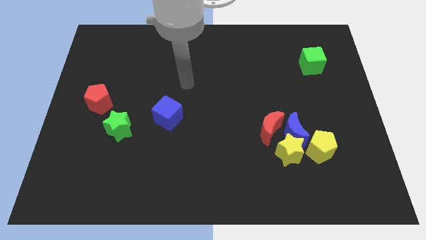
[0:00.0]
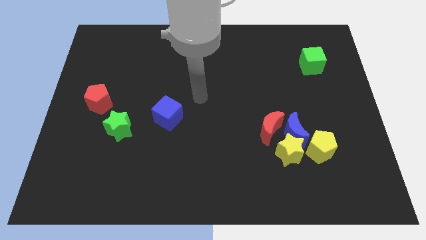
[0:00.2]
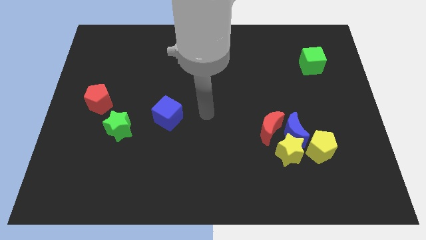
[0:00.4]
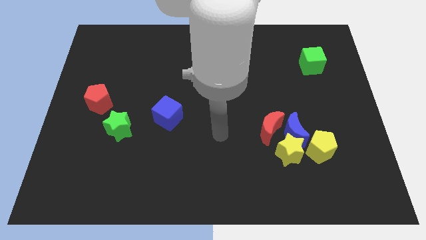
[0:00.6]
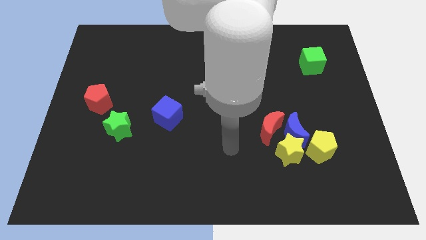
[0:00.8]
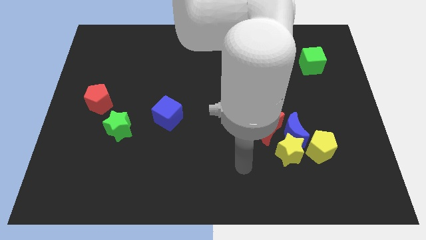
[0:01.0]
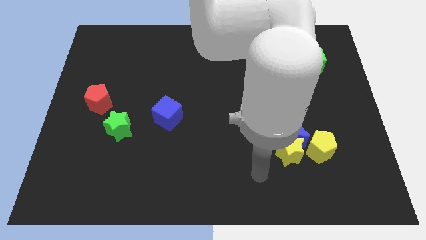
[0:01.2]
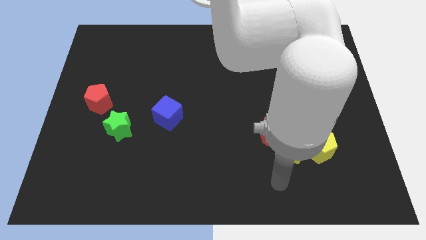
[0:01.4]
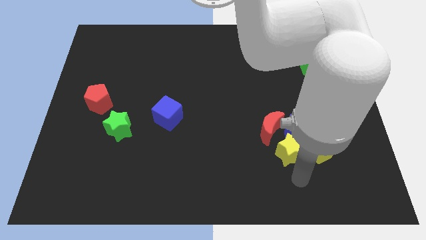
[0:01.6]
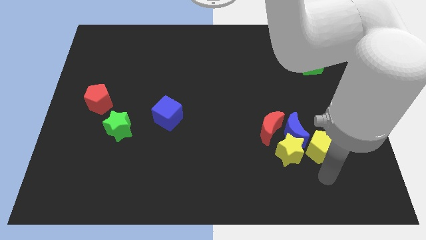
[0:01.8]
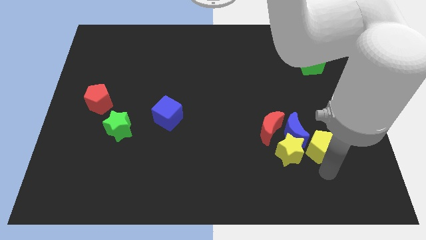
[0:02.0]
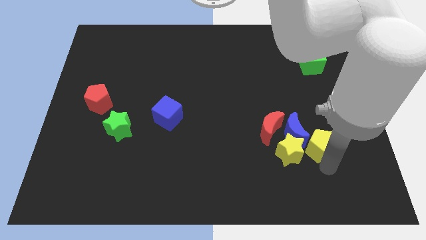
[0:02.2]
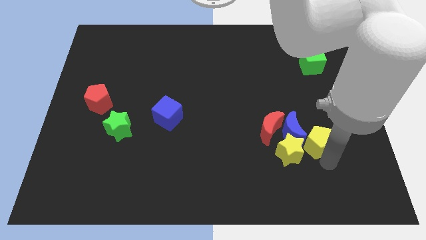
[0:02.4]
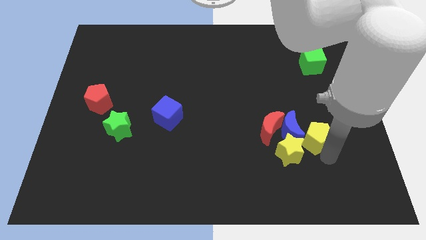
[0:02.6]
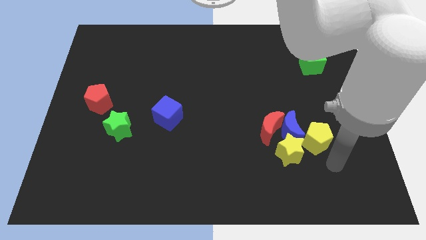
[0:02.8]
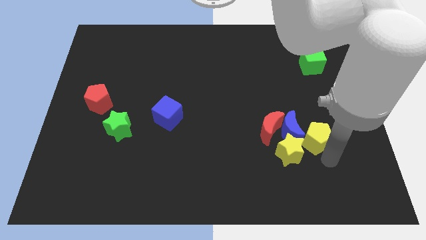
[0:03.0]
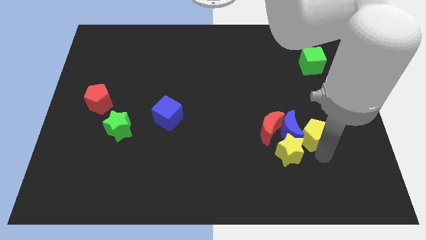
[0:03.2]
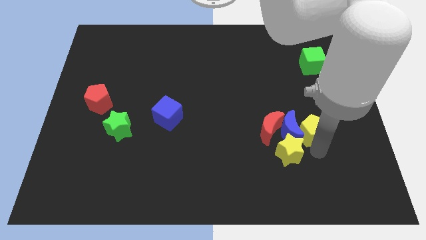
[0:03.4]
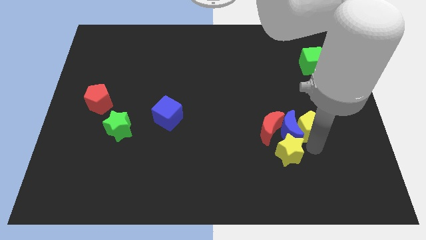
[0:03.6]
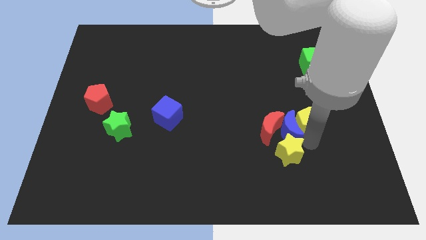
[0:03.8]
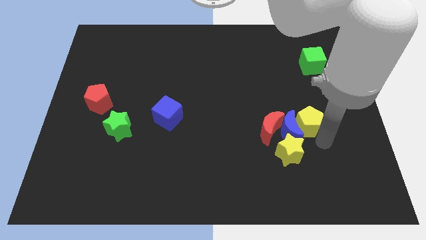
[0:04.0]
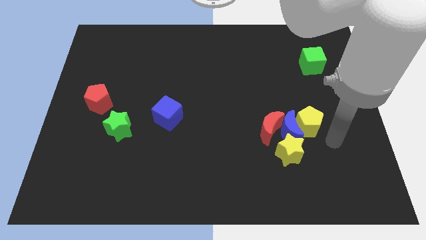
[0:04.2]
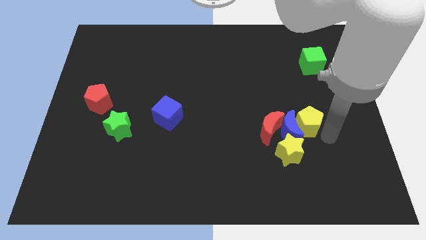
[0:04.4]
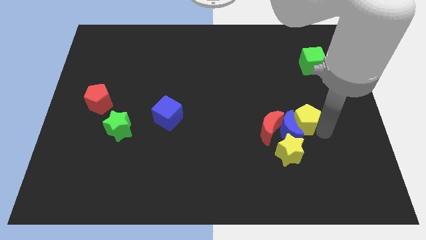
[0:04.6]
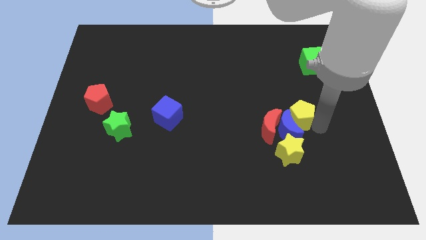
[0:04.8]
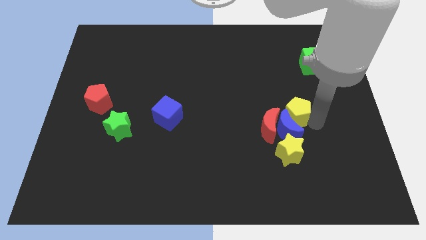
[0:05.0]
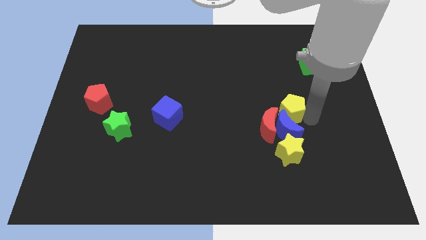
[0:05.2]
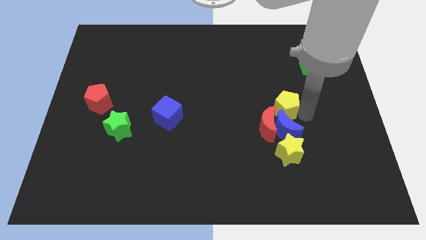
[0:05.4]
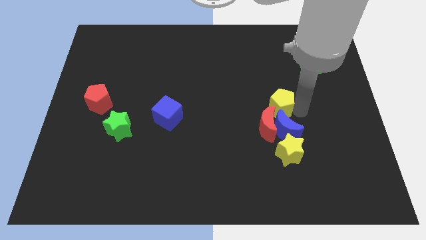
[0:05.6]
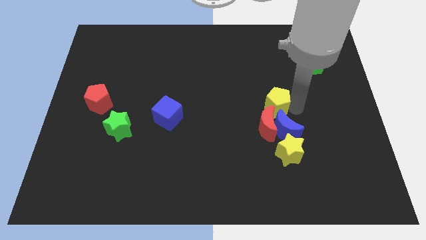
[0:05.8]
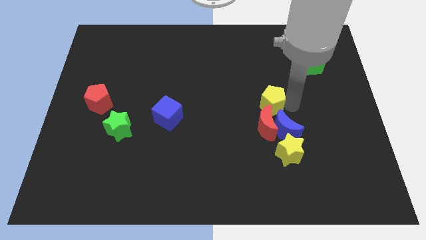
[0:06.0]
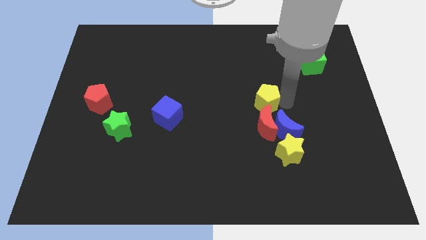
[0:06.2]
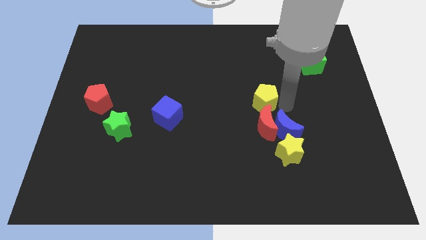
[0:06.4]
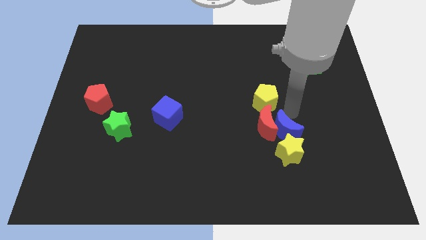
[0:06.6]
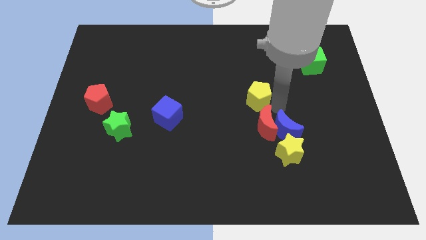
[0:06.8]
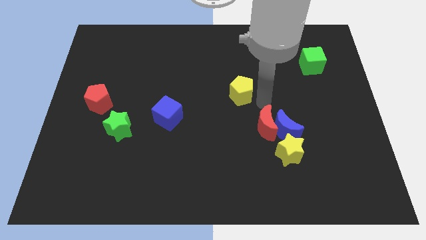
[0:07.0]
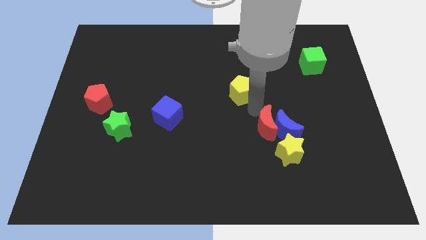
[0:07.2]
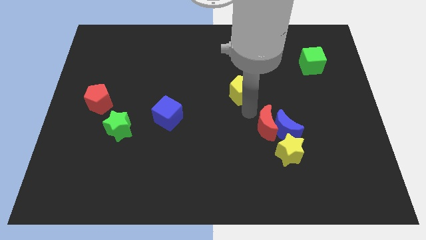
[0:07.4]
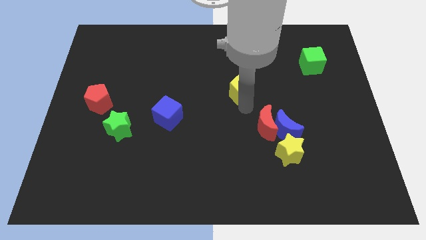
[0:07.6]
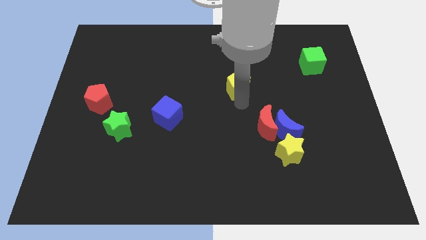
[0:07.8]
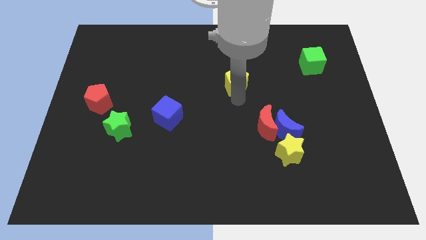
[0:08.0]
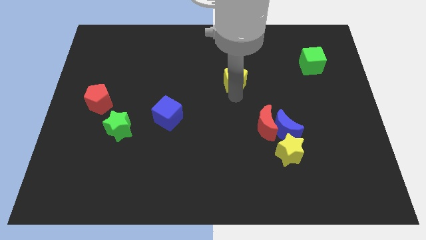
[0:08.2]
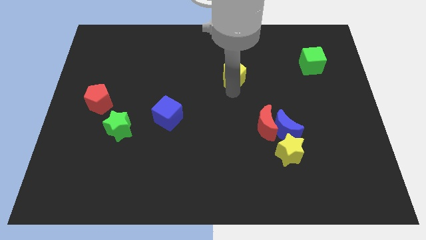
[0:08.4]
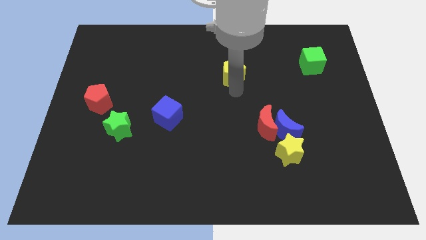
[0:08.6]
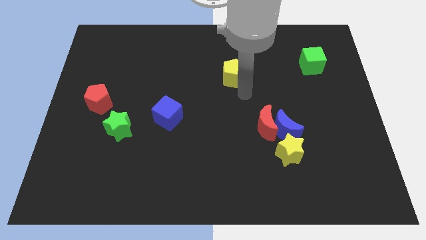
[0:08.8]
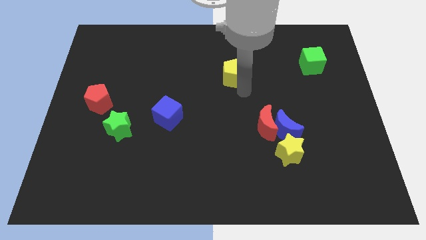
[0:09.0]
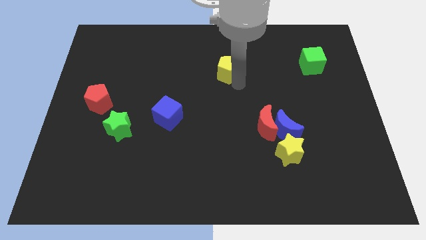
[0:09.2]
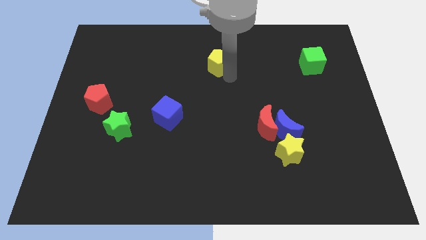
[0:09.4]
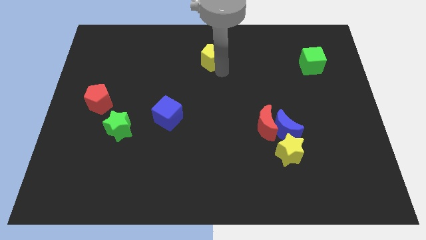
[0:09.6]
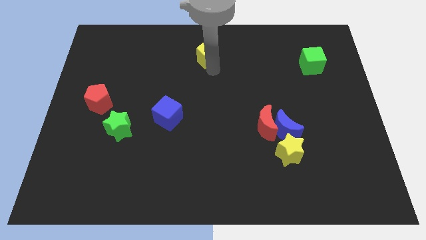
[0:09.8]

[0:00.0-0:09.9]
slide the yellow pentagon to the towards your base

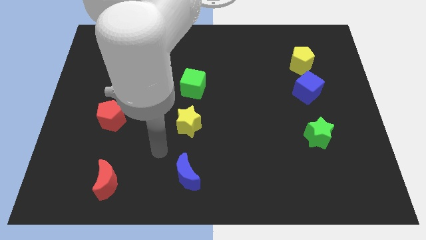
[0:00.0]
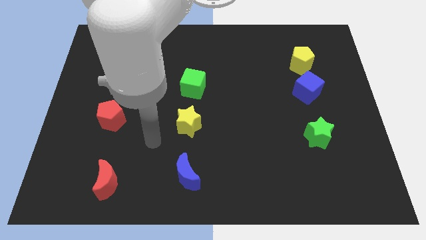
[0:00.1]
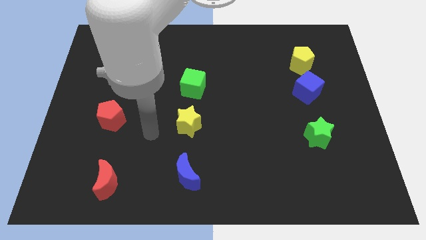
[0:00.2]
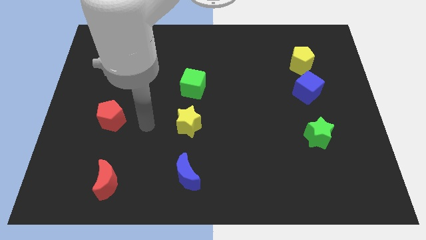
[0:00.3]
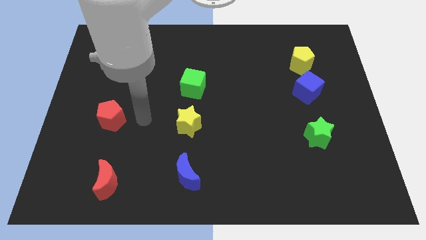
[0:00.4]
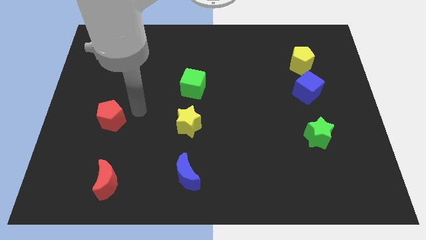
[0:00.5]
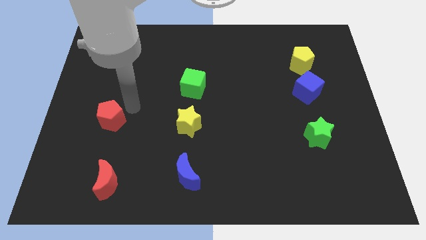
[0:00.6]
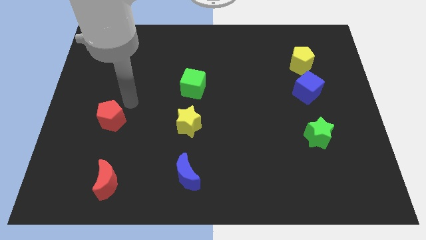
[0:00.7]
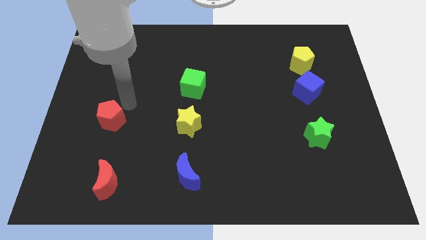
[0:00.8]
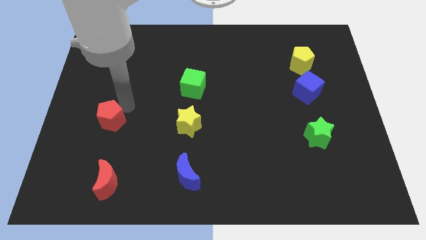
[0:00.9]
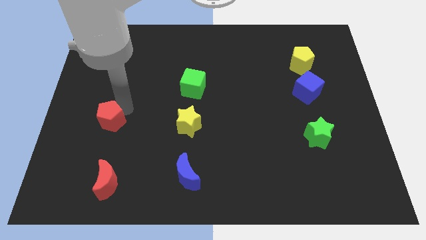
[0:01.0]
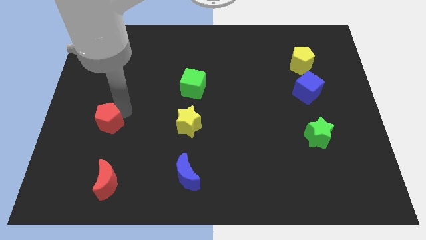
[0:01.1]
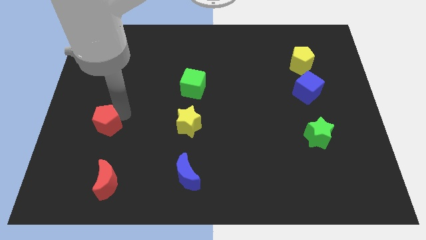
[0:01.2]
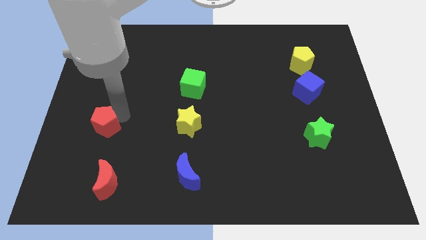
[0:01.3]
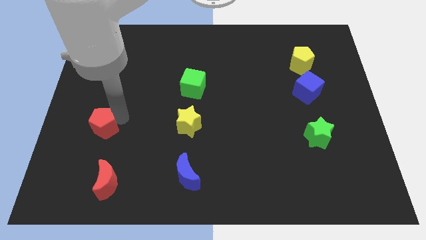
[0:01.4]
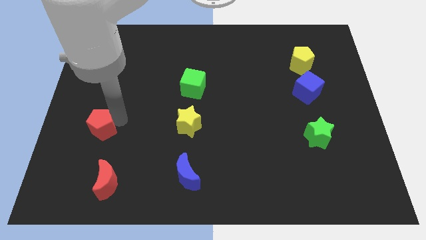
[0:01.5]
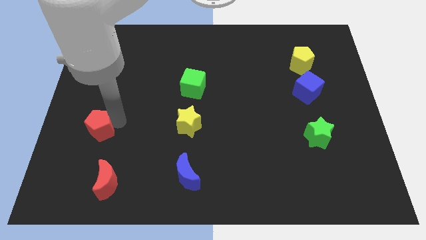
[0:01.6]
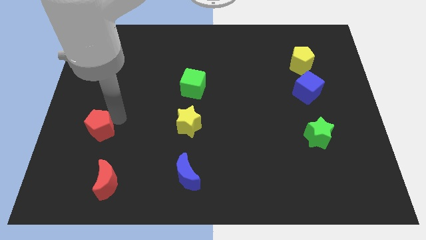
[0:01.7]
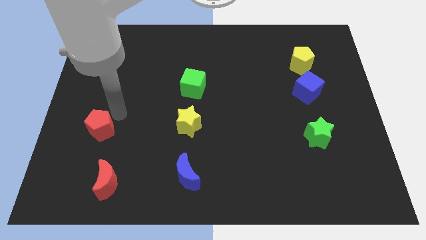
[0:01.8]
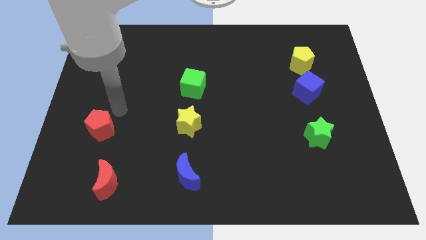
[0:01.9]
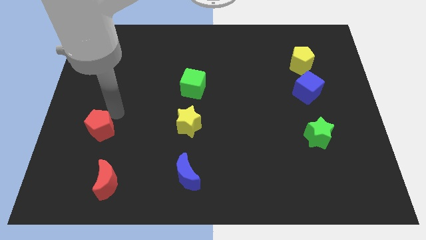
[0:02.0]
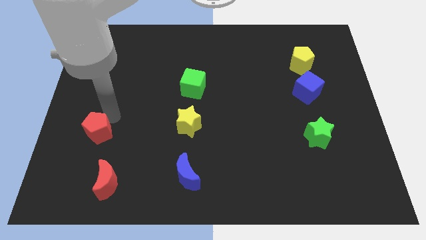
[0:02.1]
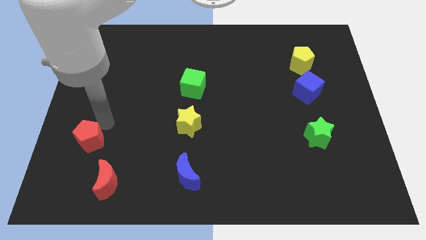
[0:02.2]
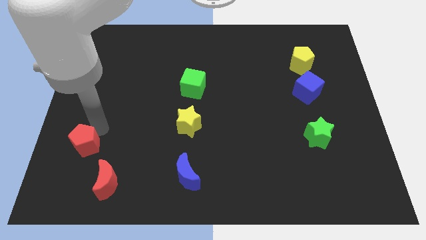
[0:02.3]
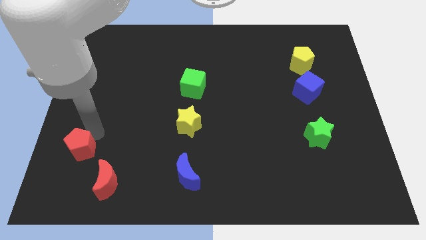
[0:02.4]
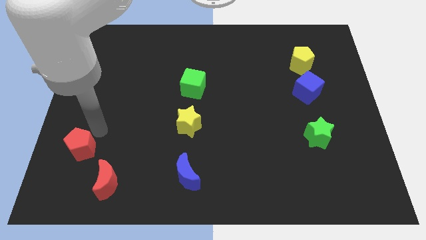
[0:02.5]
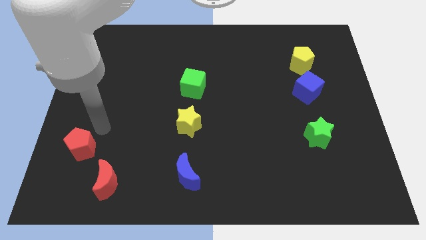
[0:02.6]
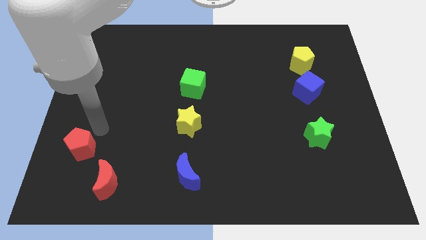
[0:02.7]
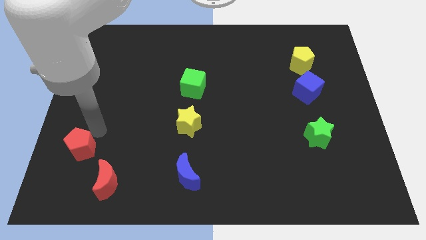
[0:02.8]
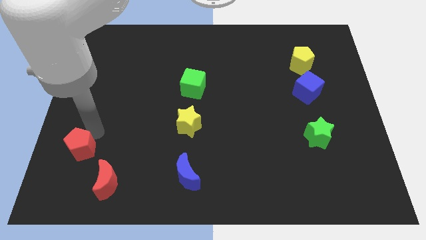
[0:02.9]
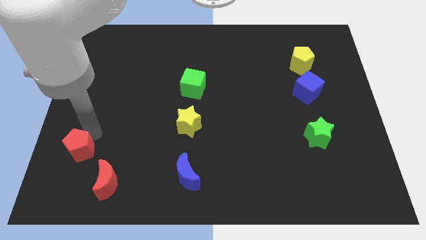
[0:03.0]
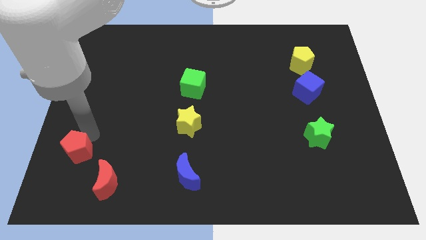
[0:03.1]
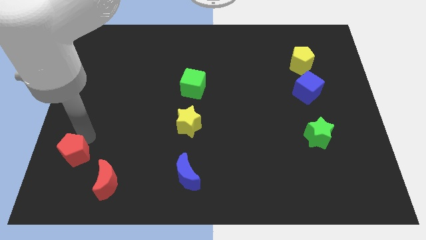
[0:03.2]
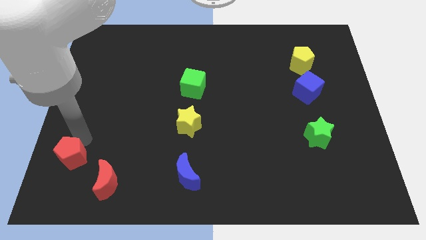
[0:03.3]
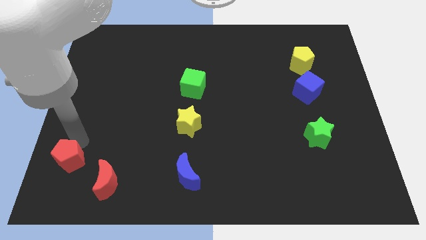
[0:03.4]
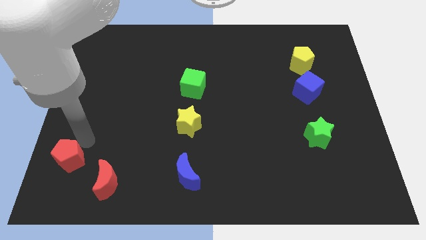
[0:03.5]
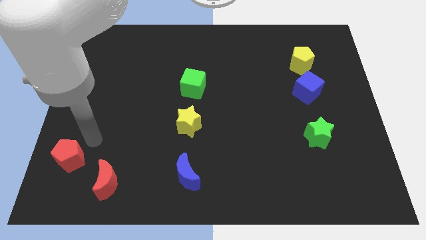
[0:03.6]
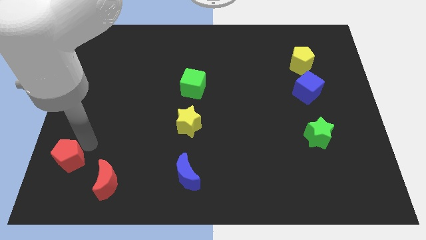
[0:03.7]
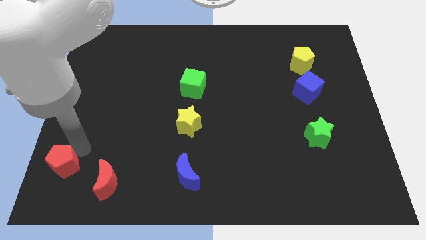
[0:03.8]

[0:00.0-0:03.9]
slide the red pentagon to the bottom left corner
